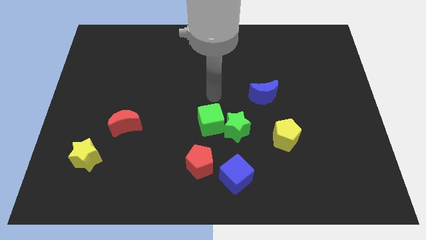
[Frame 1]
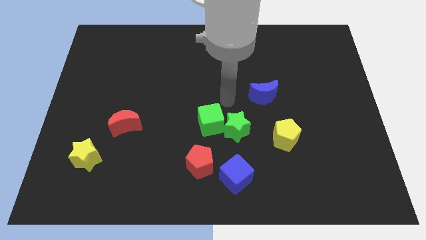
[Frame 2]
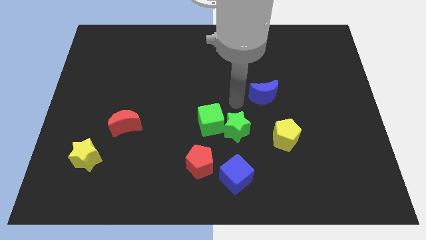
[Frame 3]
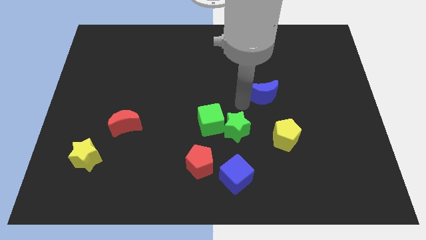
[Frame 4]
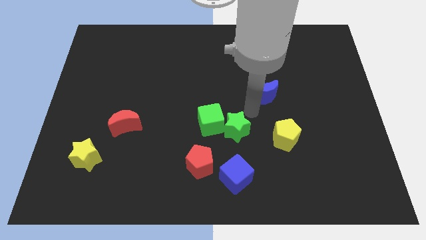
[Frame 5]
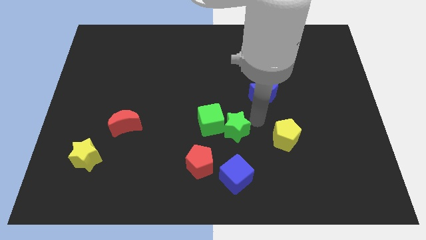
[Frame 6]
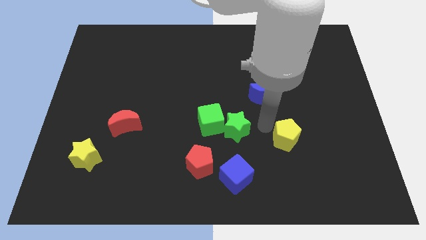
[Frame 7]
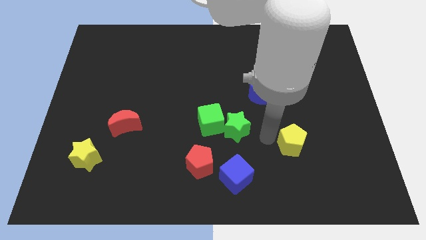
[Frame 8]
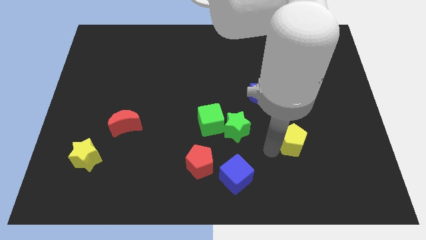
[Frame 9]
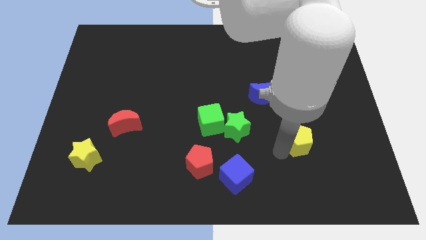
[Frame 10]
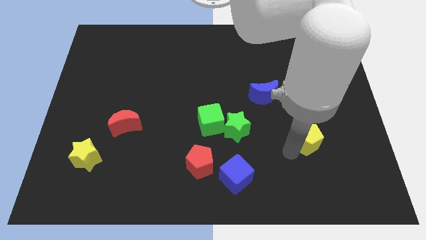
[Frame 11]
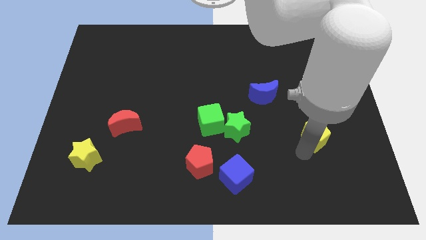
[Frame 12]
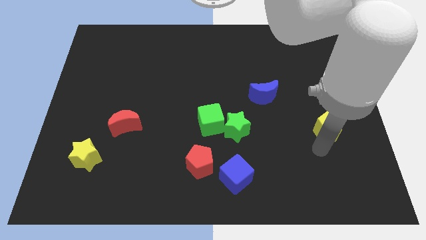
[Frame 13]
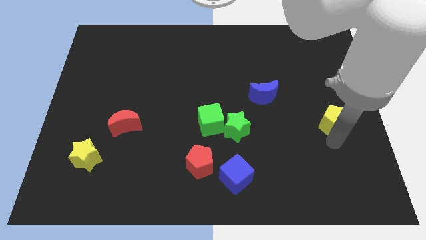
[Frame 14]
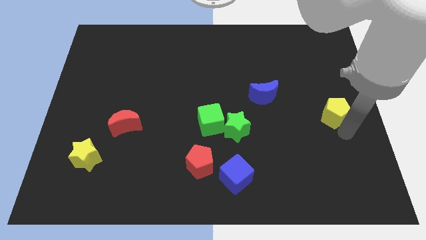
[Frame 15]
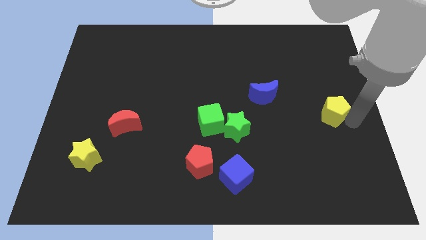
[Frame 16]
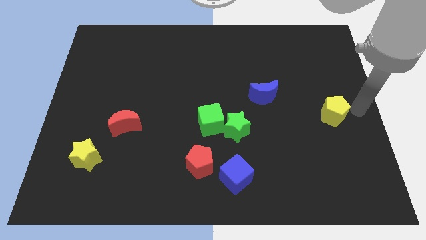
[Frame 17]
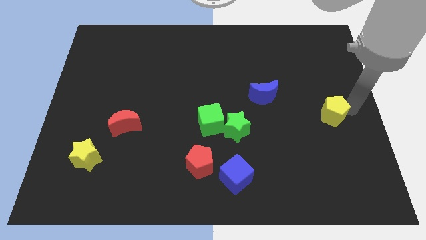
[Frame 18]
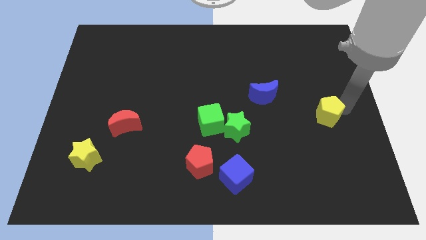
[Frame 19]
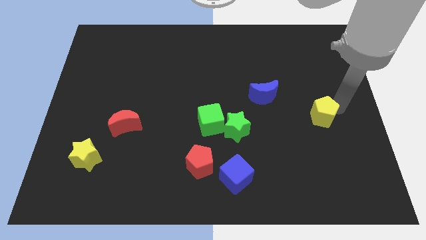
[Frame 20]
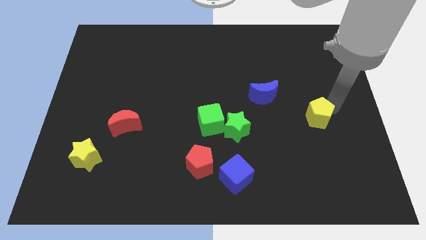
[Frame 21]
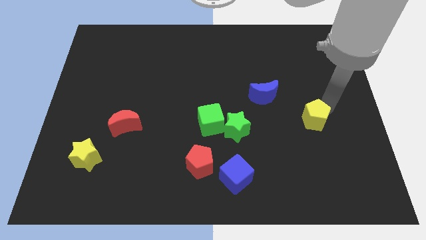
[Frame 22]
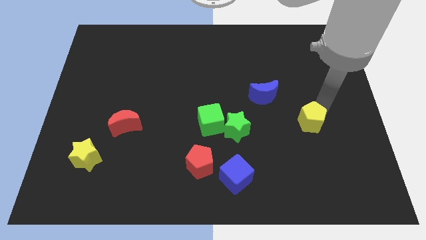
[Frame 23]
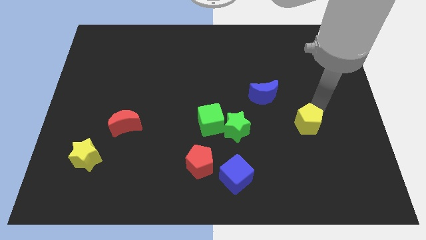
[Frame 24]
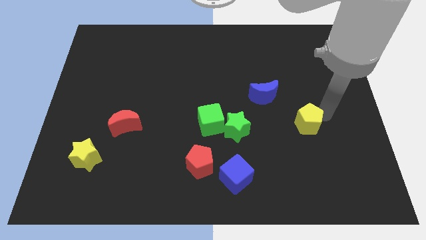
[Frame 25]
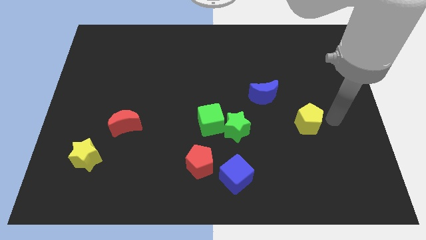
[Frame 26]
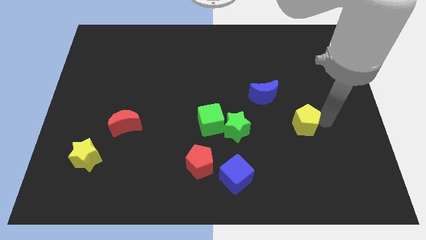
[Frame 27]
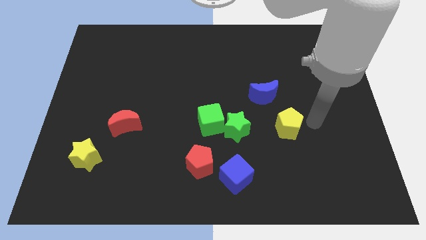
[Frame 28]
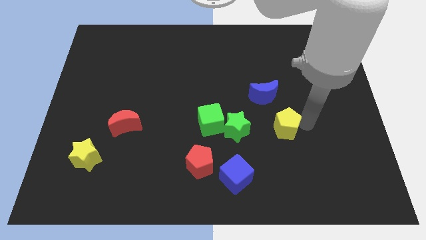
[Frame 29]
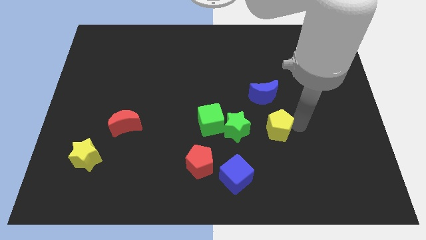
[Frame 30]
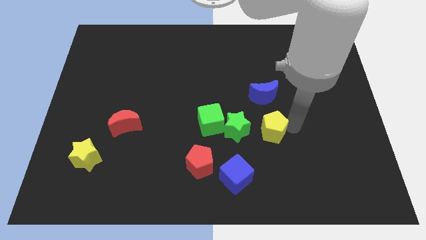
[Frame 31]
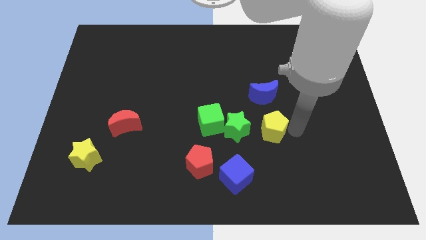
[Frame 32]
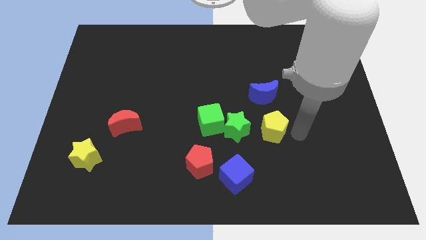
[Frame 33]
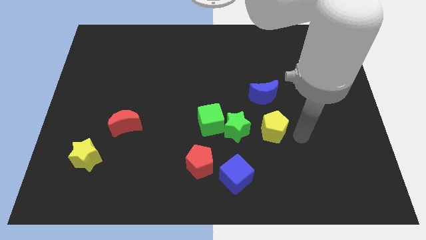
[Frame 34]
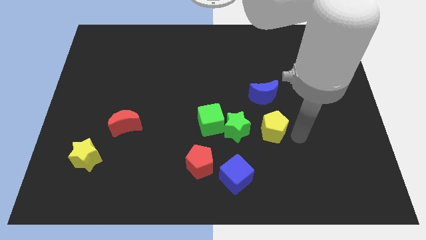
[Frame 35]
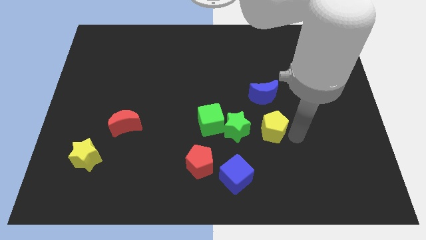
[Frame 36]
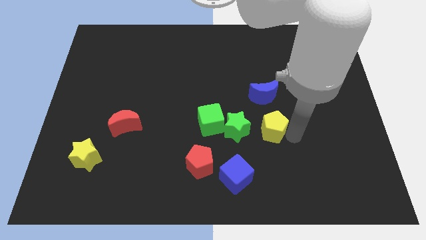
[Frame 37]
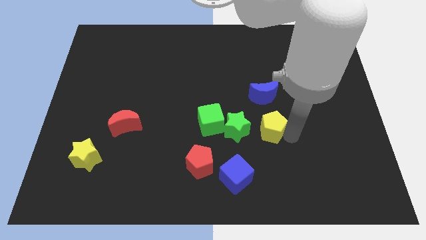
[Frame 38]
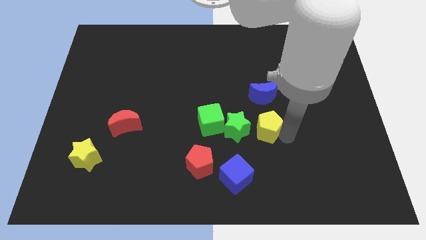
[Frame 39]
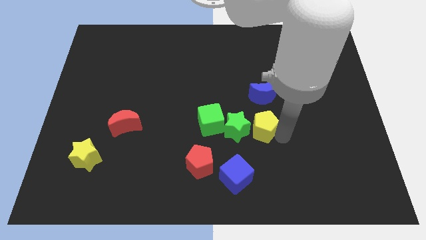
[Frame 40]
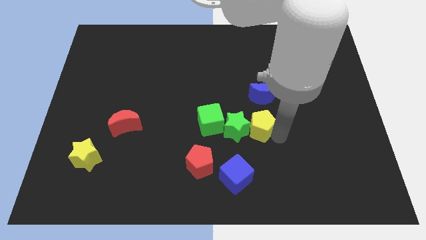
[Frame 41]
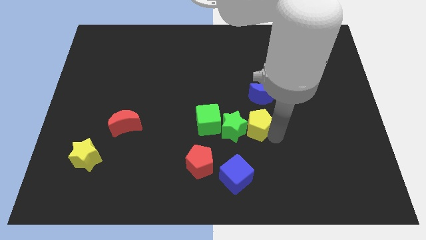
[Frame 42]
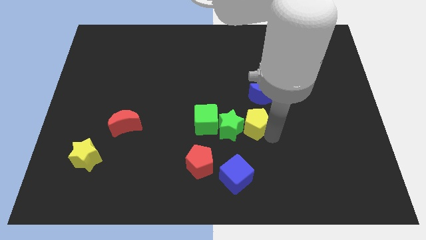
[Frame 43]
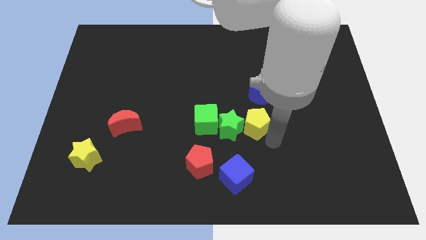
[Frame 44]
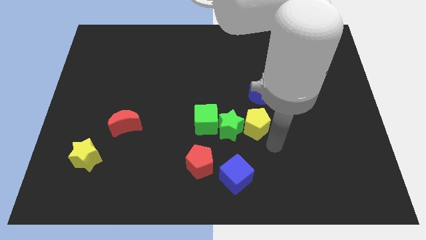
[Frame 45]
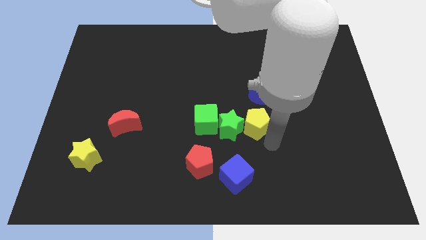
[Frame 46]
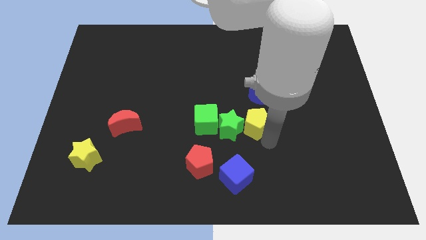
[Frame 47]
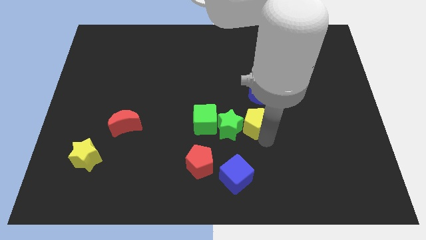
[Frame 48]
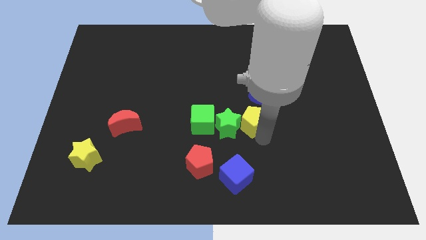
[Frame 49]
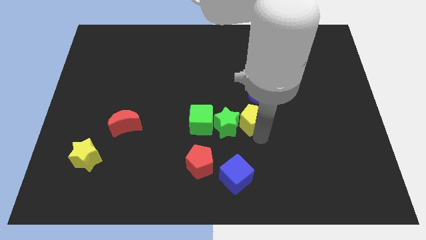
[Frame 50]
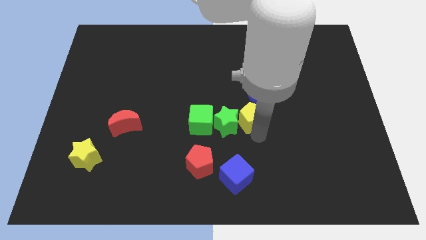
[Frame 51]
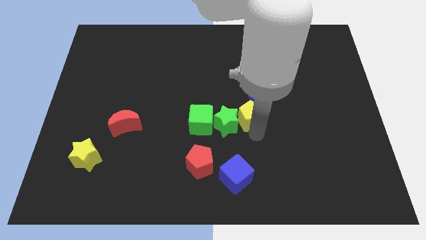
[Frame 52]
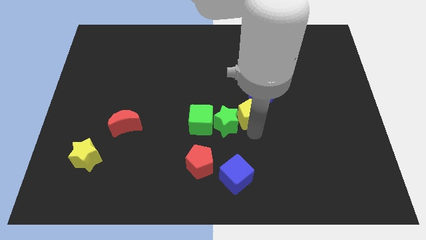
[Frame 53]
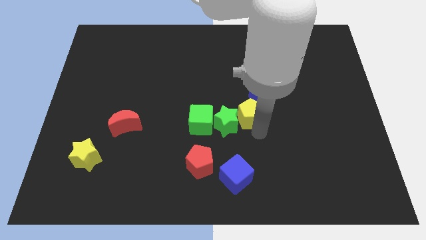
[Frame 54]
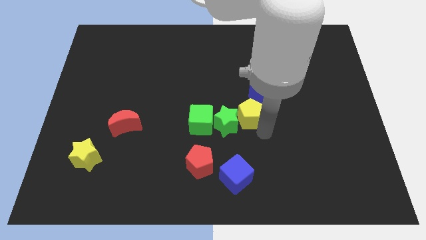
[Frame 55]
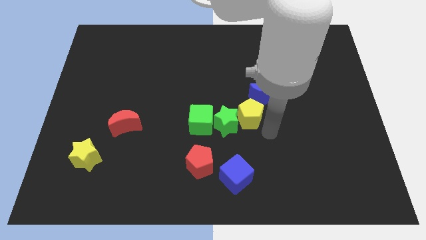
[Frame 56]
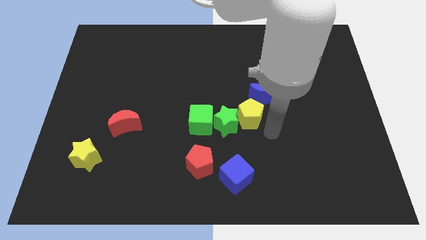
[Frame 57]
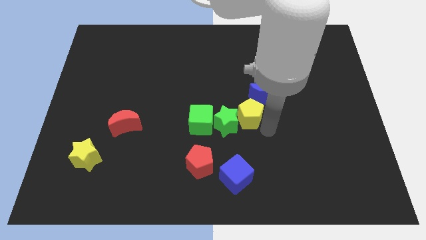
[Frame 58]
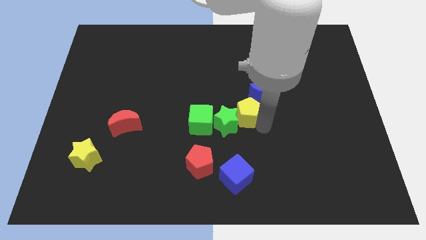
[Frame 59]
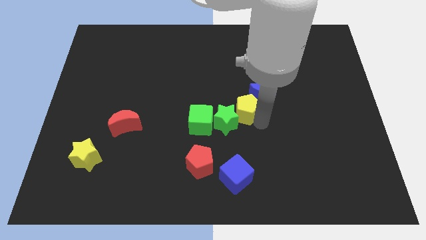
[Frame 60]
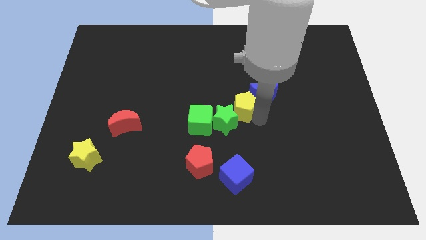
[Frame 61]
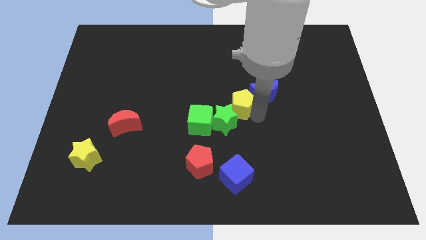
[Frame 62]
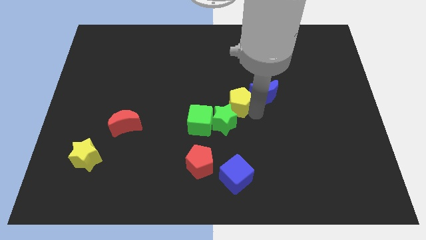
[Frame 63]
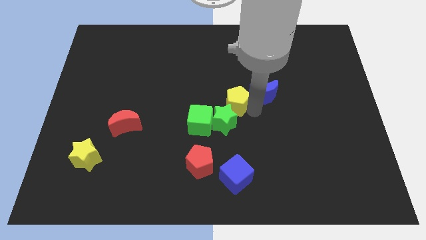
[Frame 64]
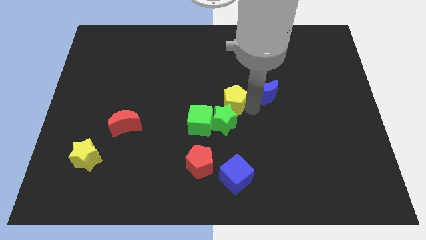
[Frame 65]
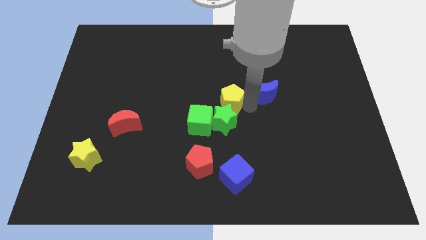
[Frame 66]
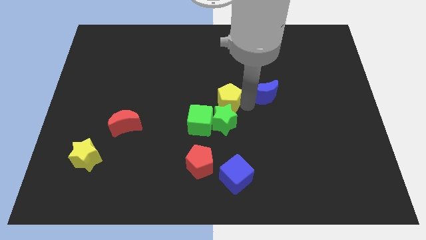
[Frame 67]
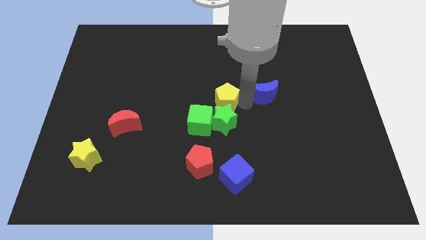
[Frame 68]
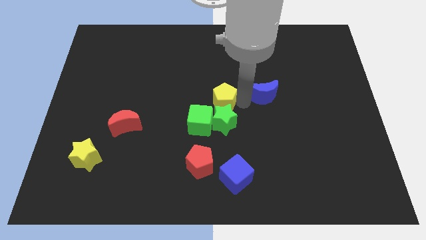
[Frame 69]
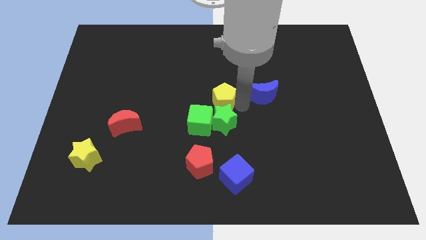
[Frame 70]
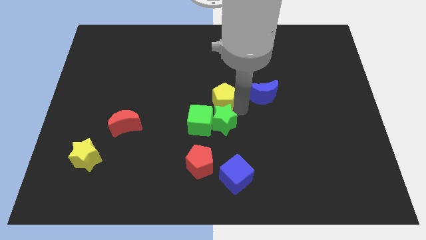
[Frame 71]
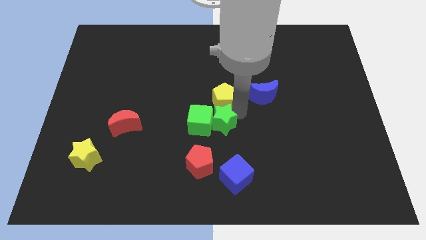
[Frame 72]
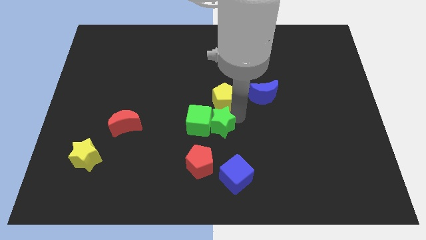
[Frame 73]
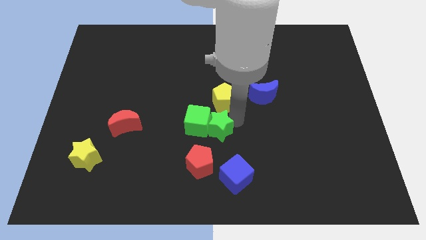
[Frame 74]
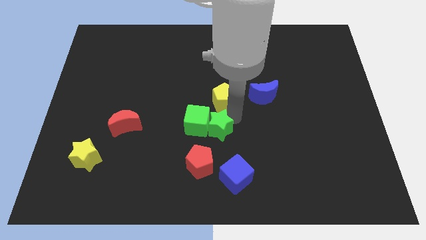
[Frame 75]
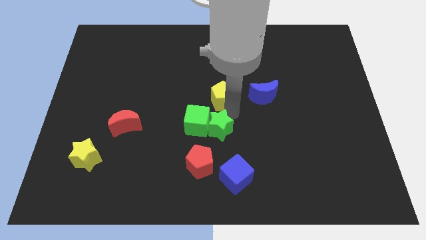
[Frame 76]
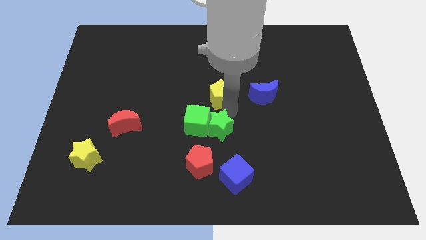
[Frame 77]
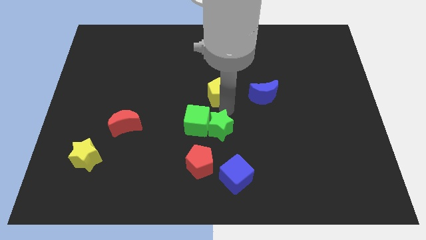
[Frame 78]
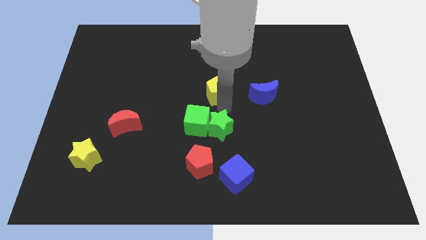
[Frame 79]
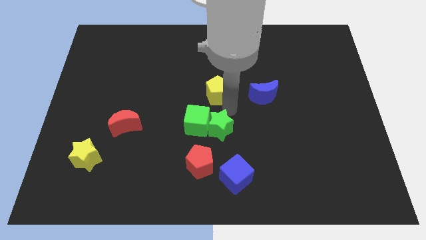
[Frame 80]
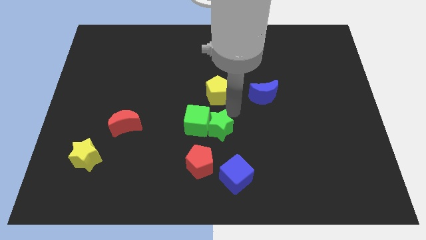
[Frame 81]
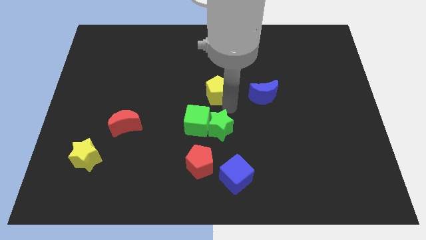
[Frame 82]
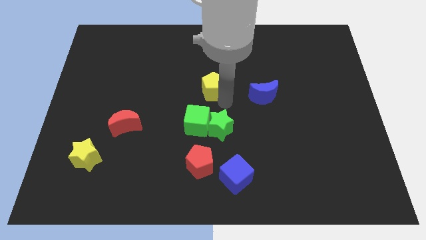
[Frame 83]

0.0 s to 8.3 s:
slide the yellow pentagon up and to the left diagonally

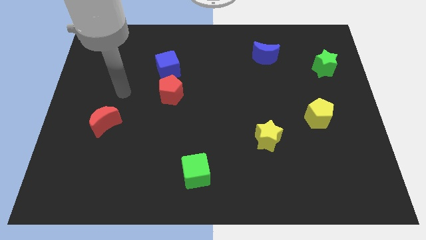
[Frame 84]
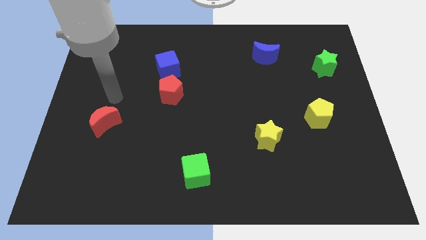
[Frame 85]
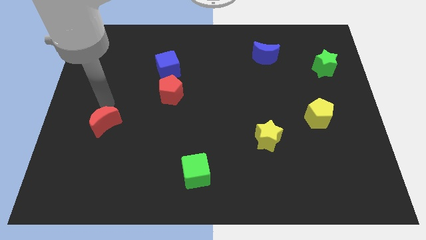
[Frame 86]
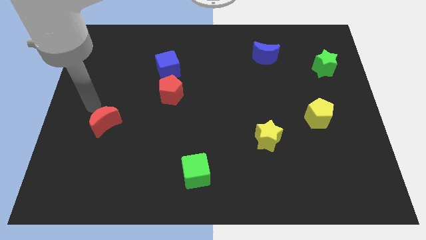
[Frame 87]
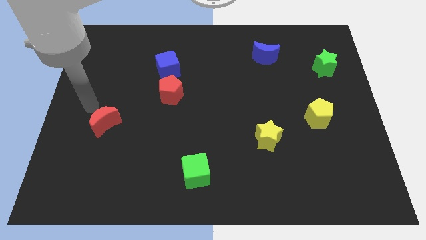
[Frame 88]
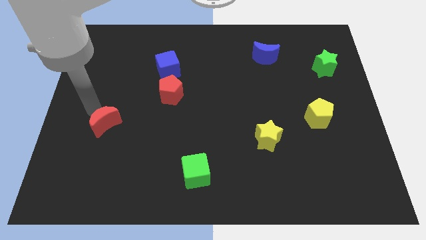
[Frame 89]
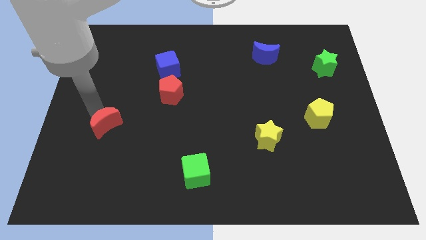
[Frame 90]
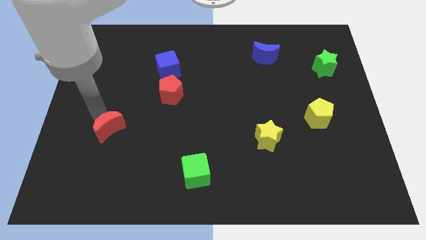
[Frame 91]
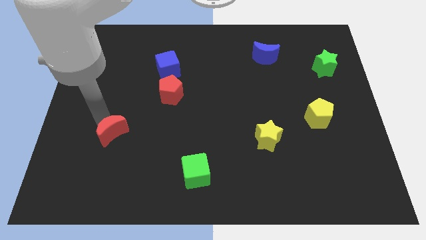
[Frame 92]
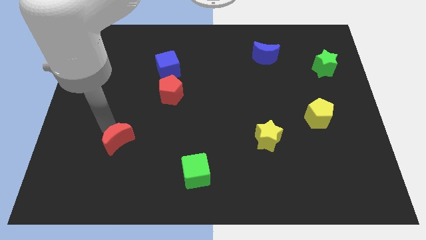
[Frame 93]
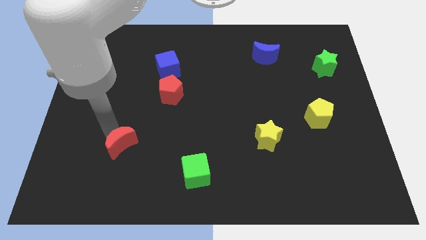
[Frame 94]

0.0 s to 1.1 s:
slightly push the red moon diagonally down and to the right
